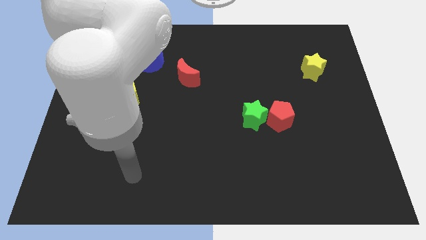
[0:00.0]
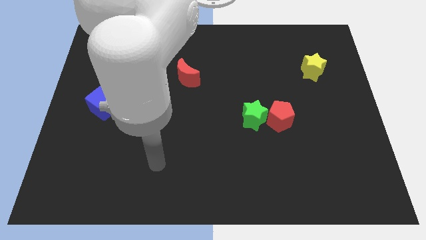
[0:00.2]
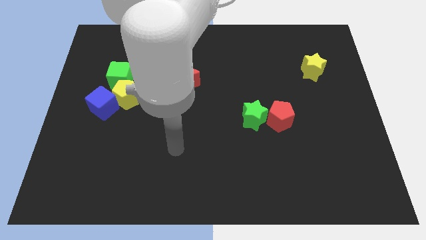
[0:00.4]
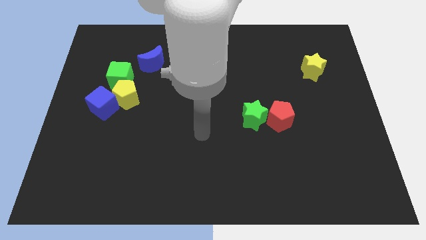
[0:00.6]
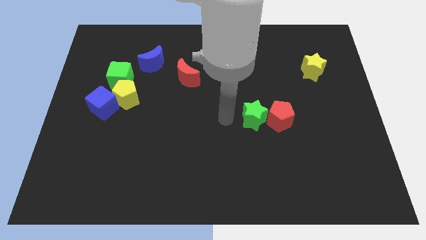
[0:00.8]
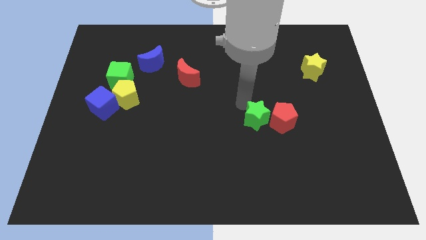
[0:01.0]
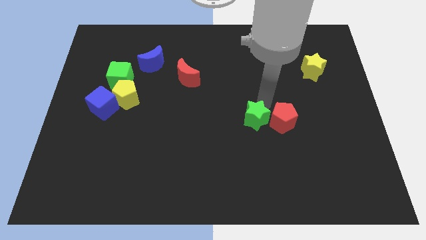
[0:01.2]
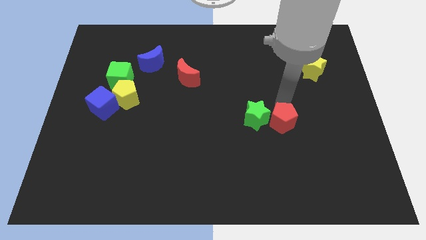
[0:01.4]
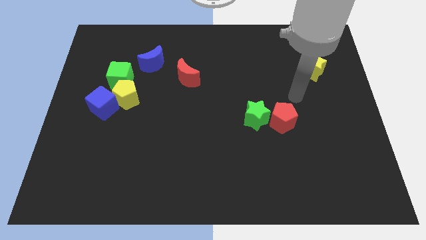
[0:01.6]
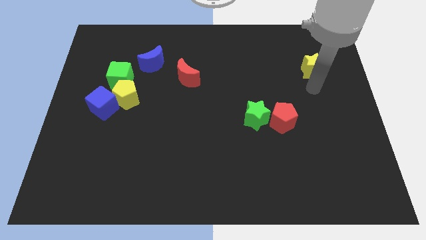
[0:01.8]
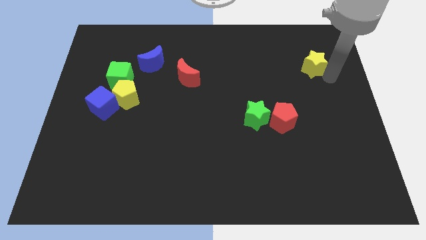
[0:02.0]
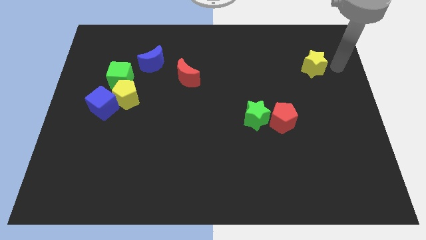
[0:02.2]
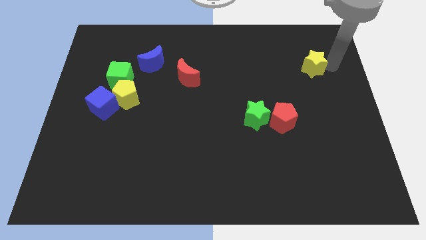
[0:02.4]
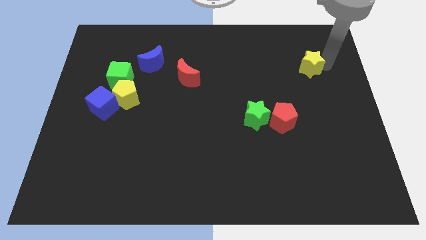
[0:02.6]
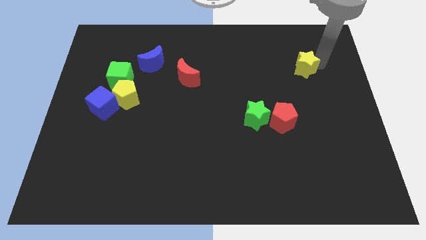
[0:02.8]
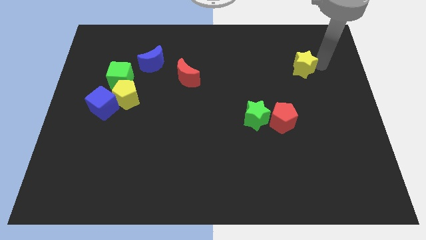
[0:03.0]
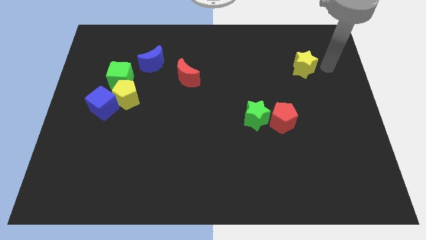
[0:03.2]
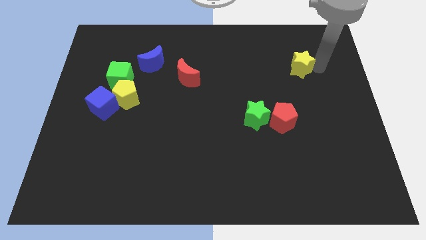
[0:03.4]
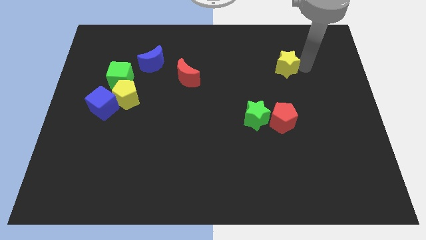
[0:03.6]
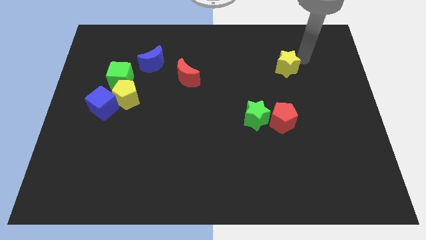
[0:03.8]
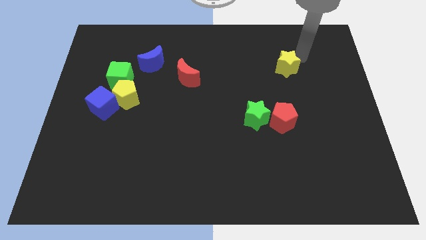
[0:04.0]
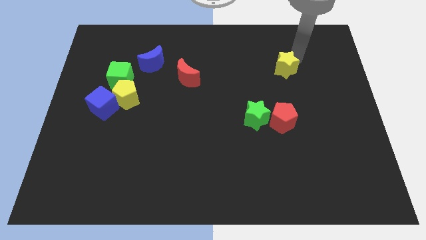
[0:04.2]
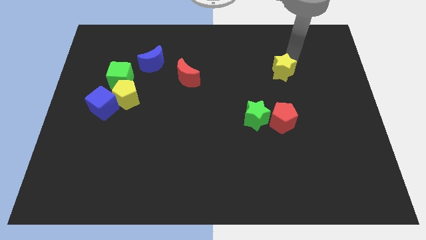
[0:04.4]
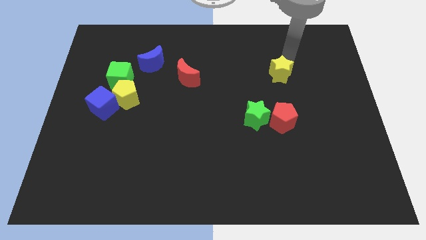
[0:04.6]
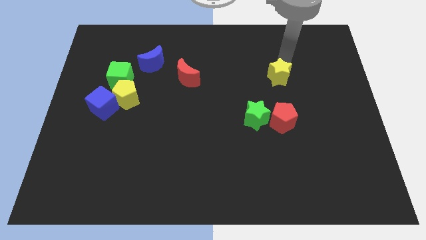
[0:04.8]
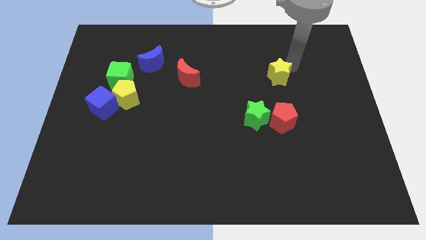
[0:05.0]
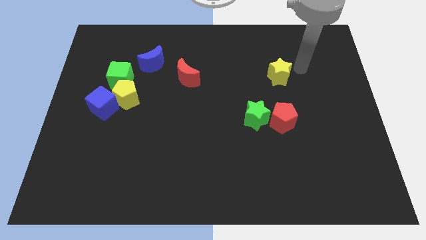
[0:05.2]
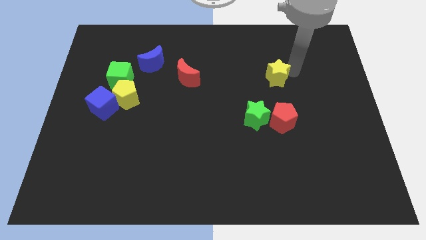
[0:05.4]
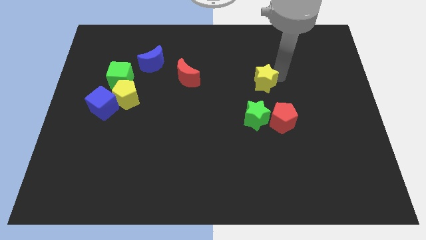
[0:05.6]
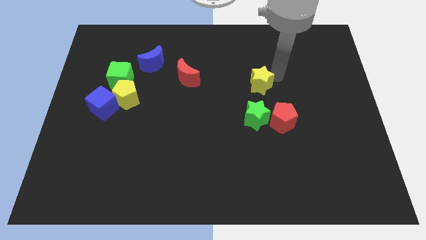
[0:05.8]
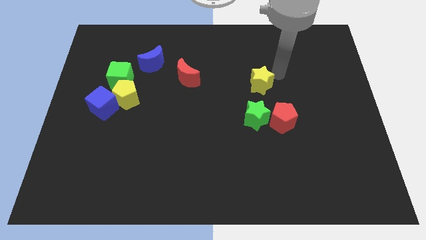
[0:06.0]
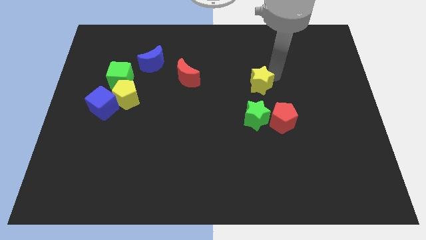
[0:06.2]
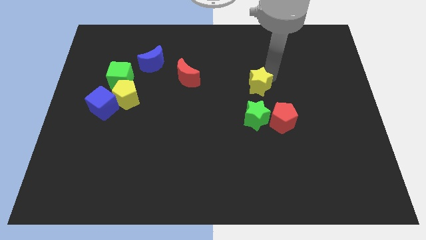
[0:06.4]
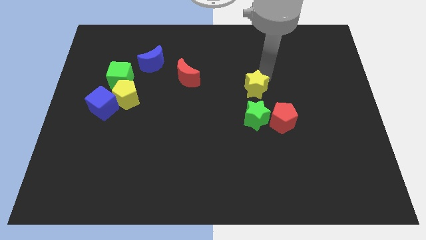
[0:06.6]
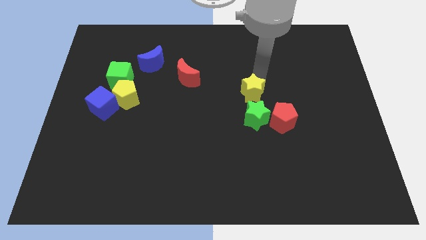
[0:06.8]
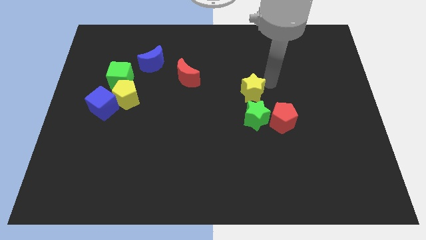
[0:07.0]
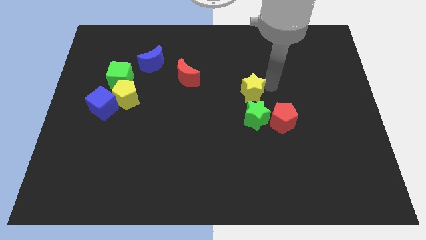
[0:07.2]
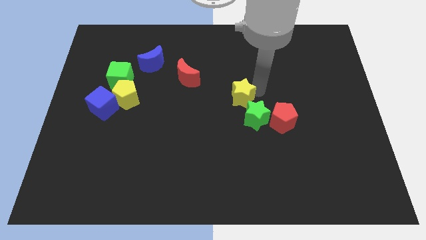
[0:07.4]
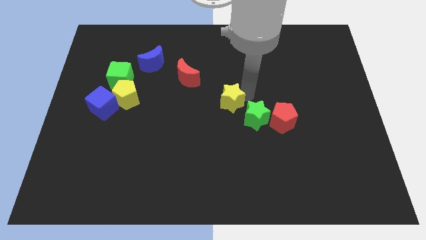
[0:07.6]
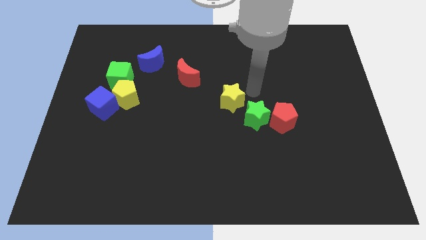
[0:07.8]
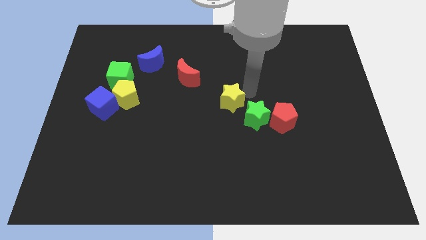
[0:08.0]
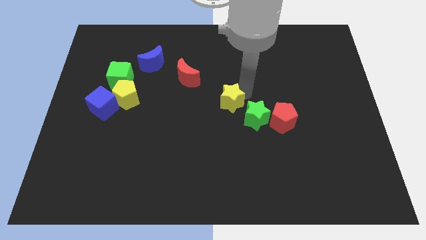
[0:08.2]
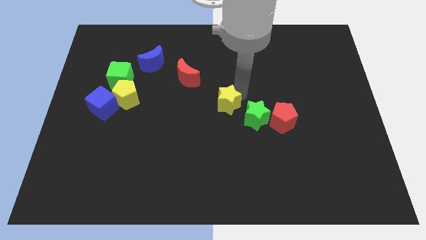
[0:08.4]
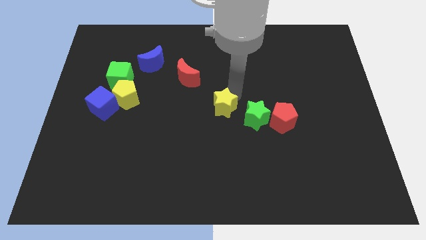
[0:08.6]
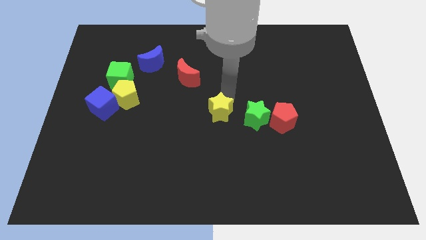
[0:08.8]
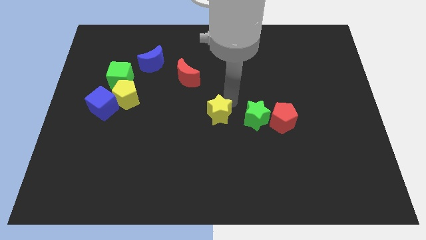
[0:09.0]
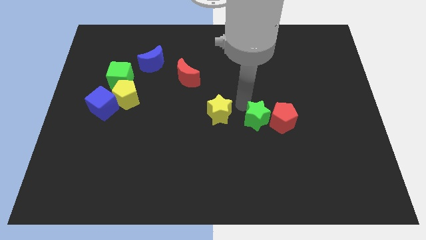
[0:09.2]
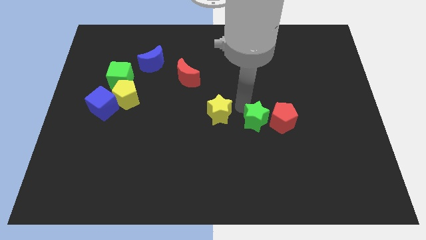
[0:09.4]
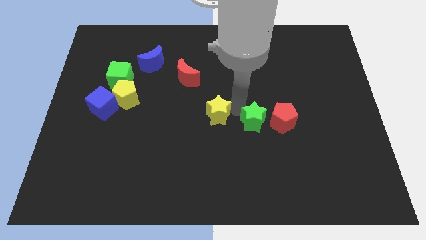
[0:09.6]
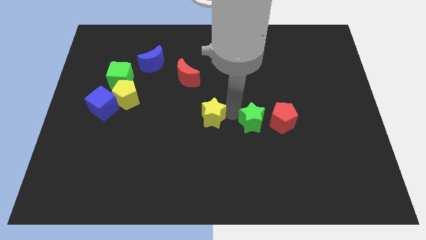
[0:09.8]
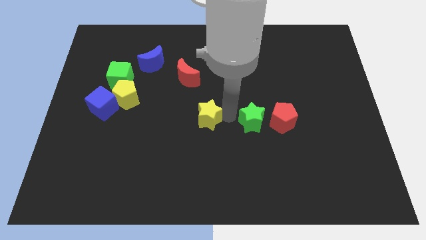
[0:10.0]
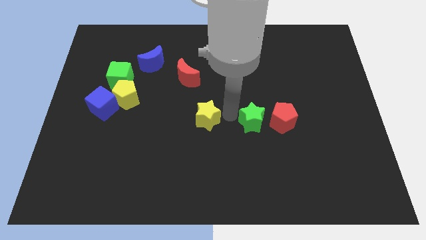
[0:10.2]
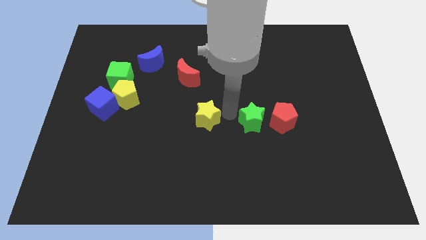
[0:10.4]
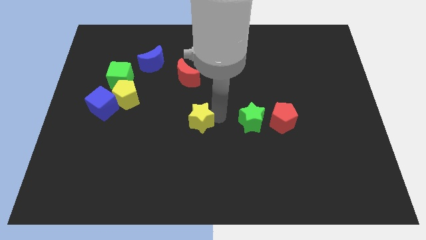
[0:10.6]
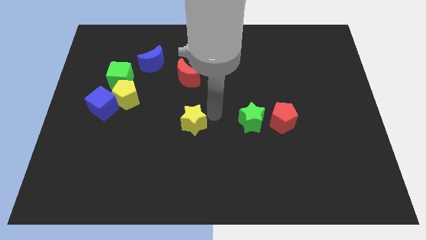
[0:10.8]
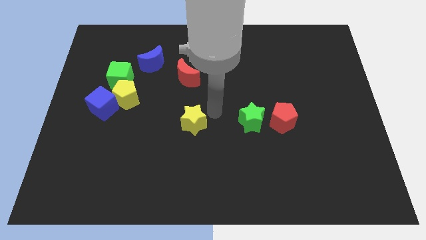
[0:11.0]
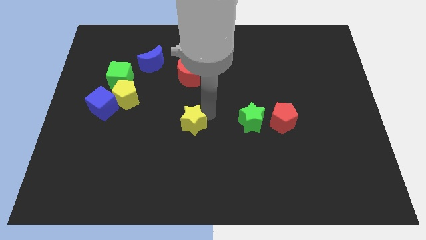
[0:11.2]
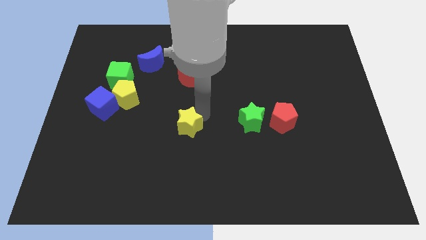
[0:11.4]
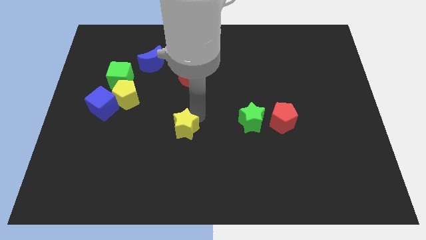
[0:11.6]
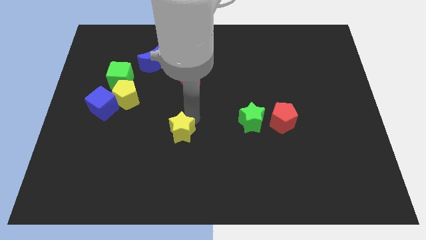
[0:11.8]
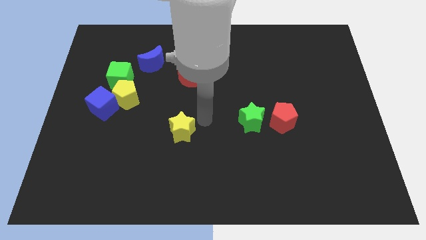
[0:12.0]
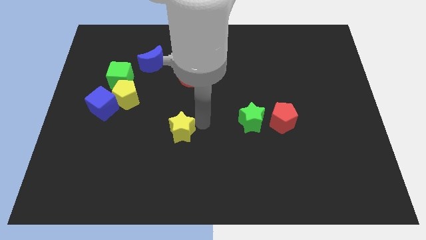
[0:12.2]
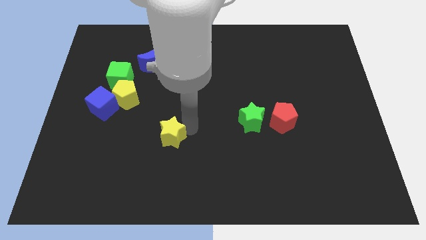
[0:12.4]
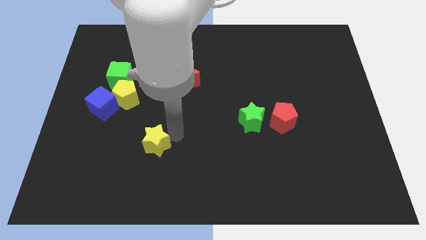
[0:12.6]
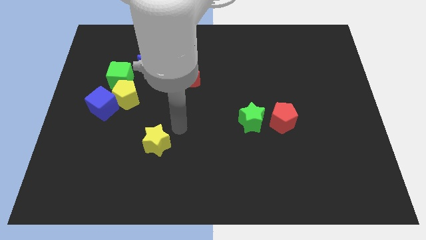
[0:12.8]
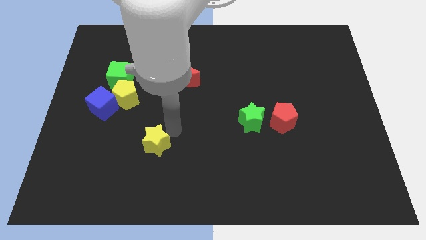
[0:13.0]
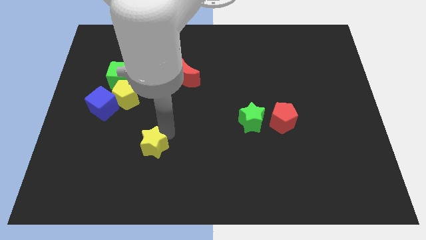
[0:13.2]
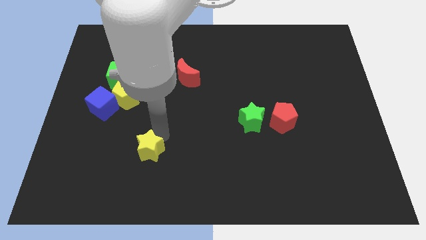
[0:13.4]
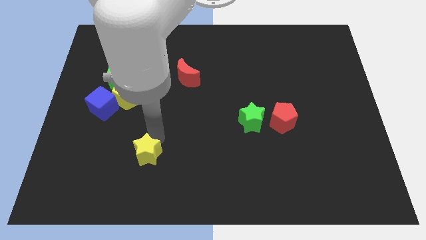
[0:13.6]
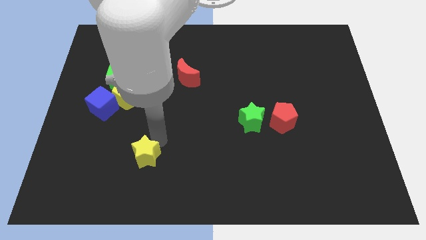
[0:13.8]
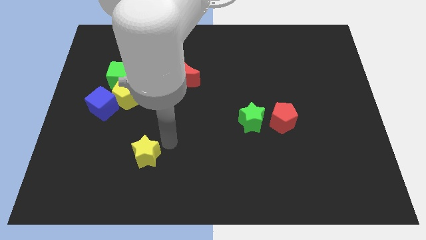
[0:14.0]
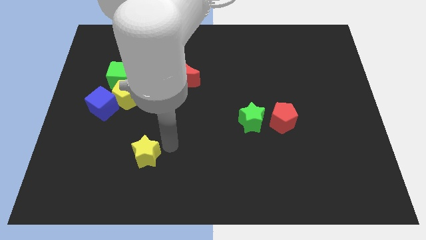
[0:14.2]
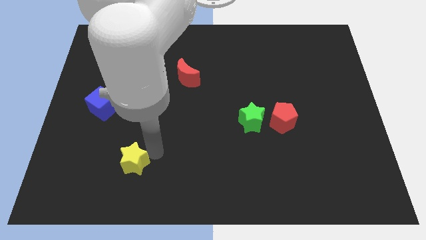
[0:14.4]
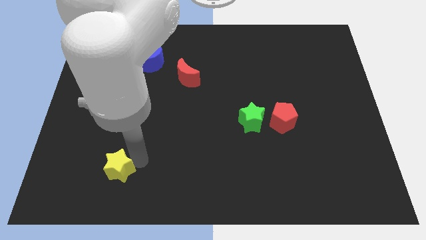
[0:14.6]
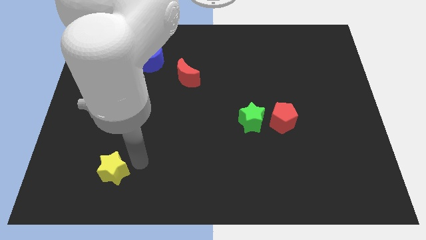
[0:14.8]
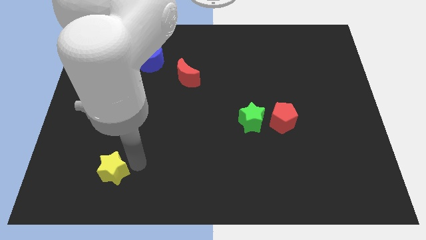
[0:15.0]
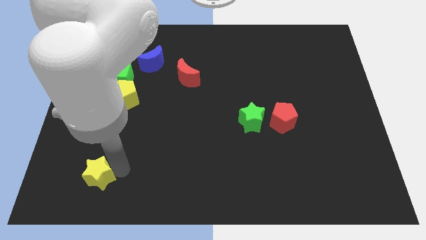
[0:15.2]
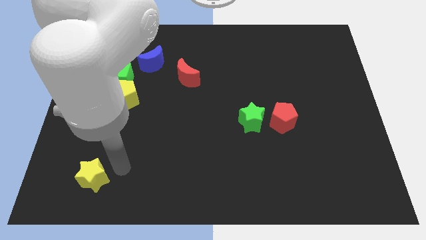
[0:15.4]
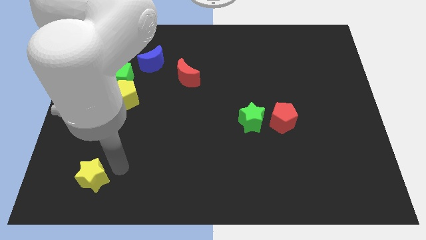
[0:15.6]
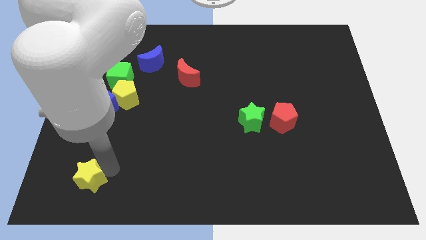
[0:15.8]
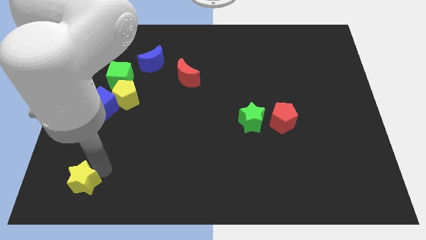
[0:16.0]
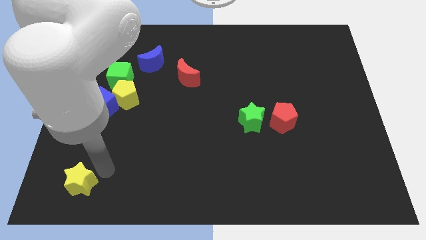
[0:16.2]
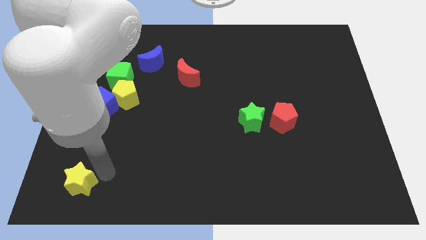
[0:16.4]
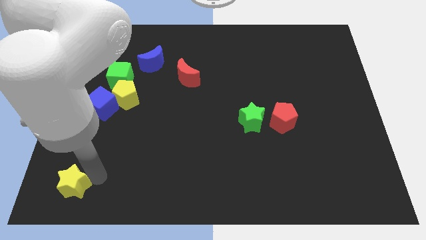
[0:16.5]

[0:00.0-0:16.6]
move the yellow star to the bottom left corner
